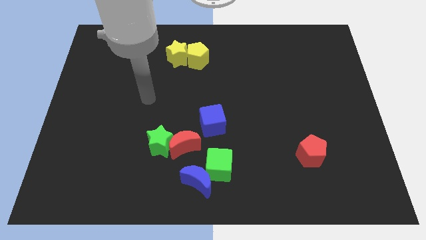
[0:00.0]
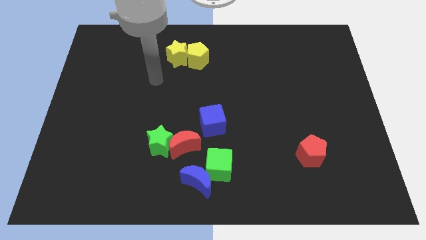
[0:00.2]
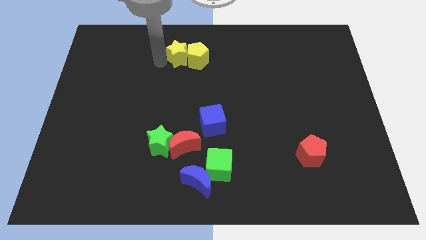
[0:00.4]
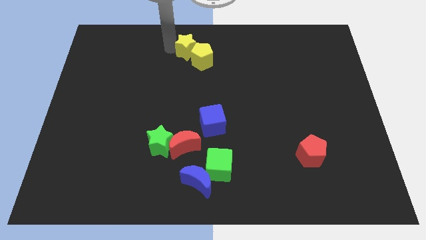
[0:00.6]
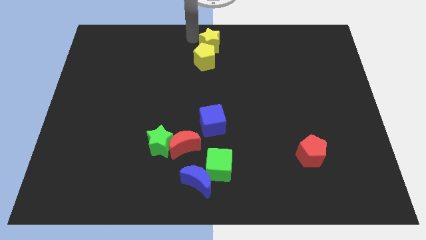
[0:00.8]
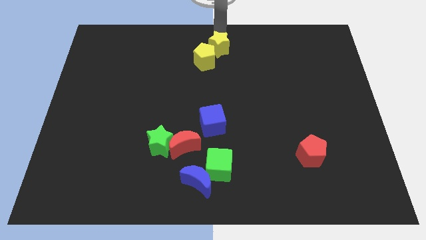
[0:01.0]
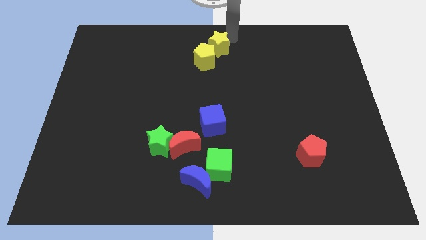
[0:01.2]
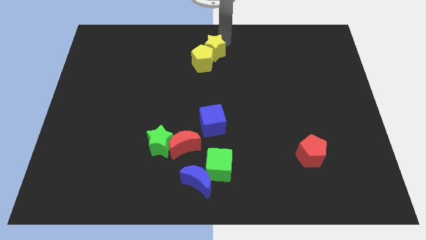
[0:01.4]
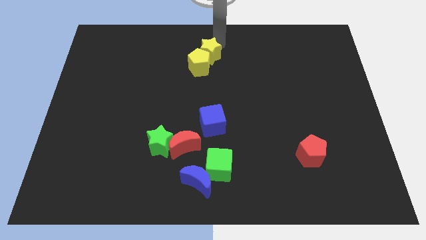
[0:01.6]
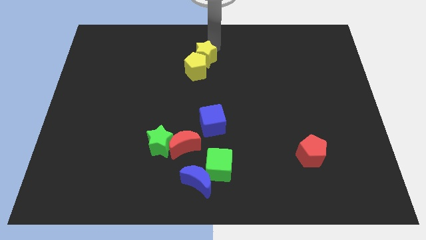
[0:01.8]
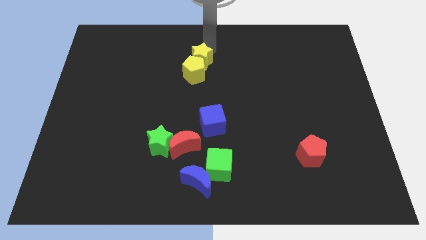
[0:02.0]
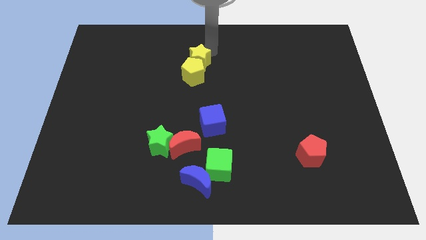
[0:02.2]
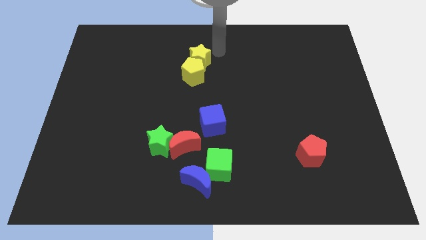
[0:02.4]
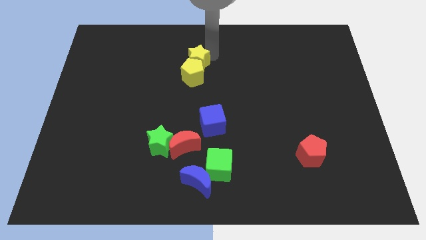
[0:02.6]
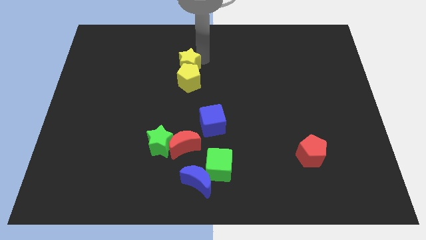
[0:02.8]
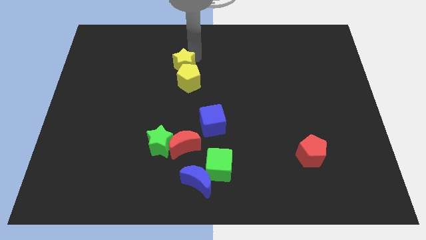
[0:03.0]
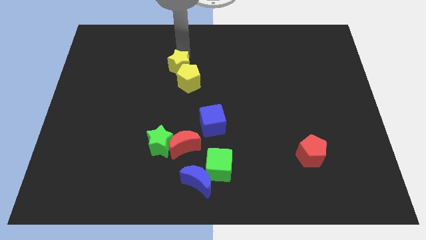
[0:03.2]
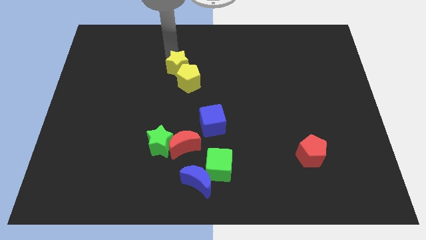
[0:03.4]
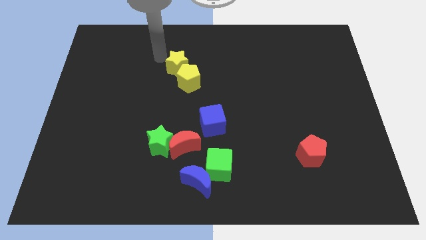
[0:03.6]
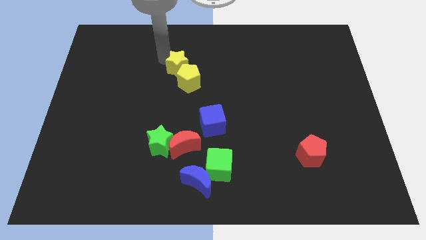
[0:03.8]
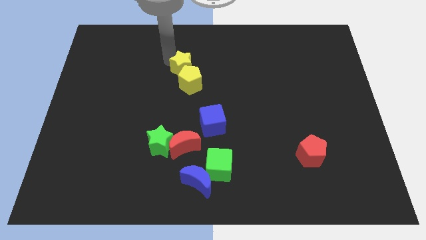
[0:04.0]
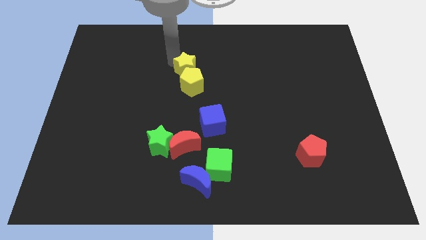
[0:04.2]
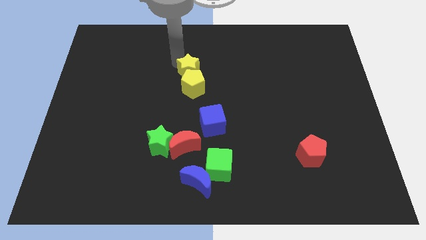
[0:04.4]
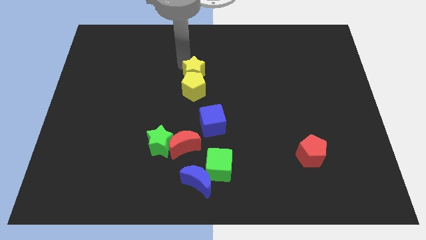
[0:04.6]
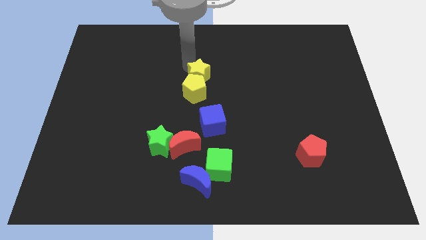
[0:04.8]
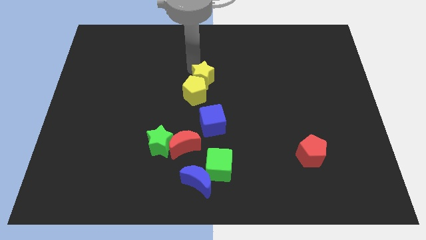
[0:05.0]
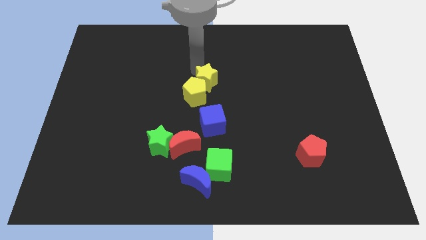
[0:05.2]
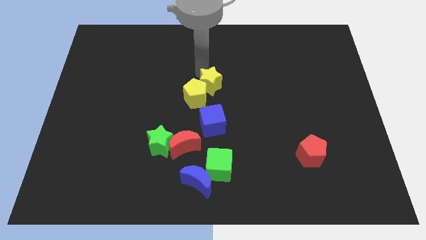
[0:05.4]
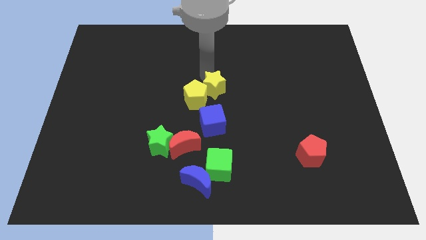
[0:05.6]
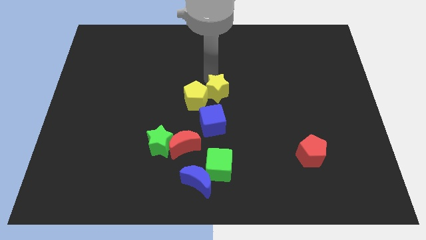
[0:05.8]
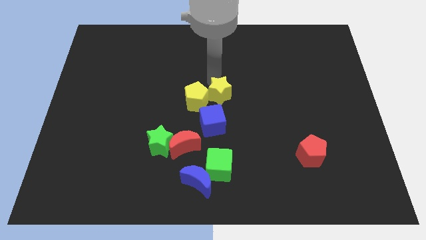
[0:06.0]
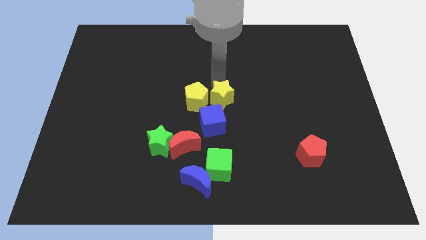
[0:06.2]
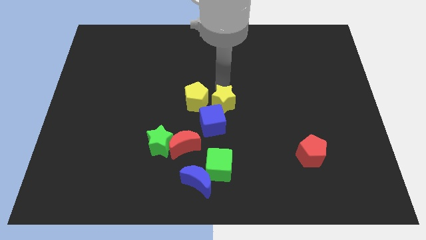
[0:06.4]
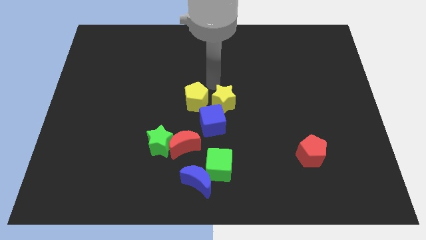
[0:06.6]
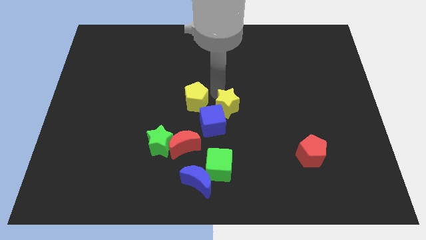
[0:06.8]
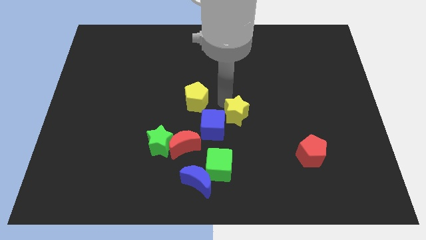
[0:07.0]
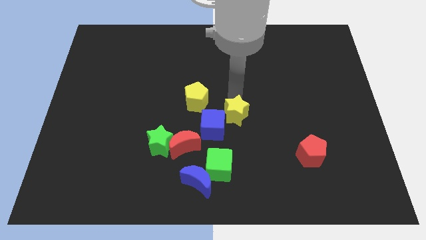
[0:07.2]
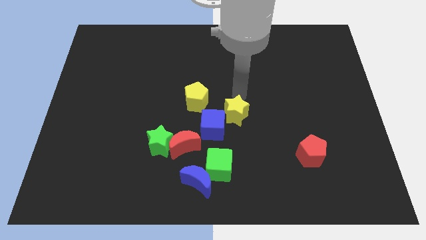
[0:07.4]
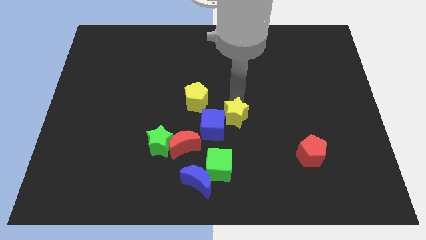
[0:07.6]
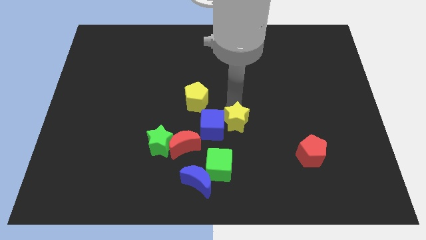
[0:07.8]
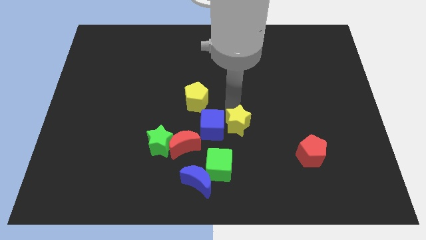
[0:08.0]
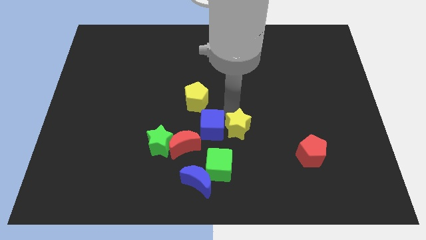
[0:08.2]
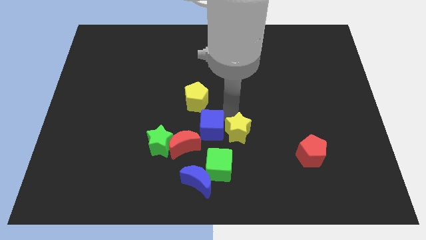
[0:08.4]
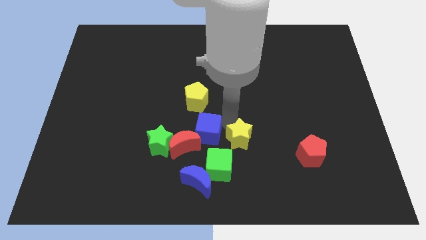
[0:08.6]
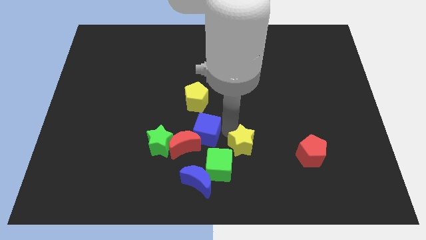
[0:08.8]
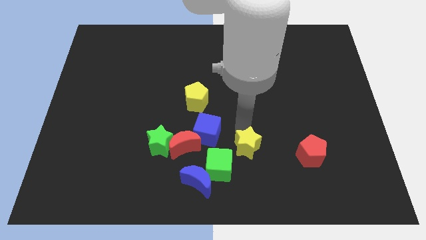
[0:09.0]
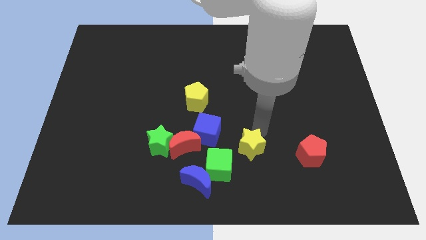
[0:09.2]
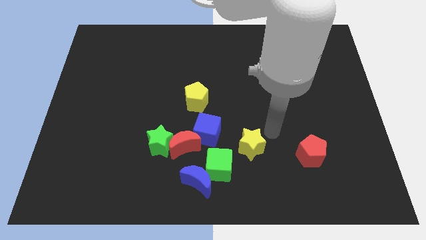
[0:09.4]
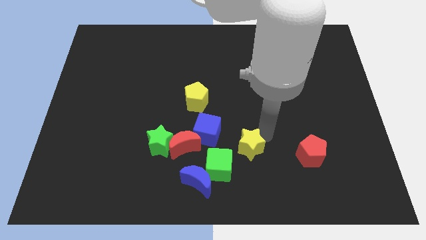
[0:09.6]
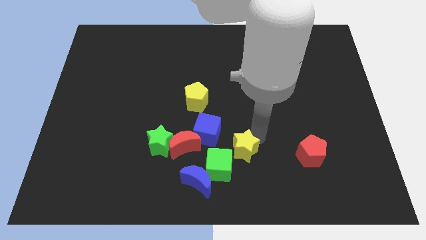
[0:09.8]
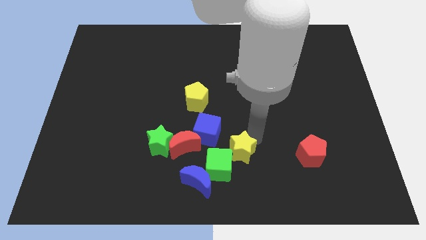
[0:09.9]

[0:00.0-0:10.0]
move the yellow star to the green cube

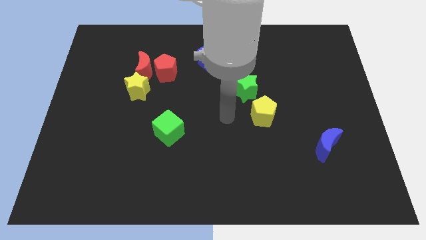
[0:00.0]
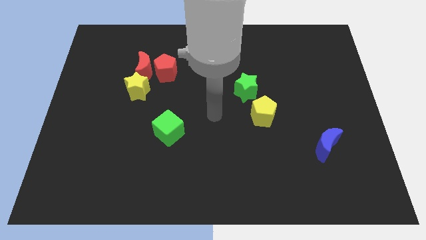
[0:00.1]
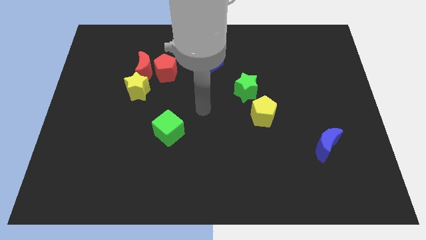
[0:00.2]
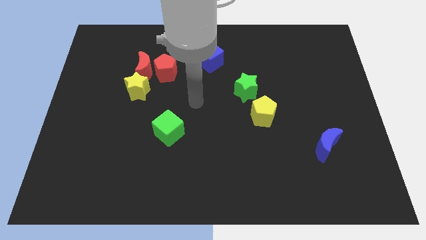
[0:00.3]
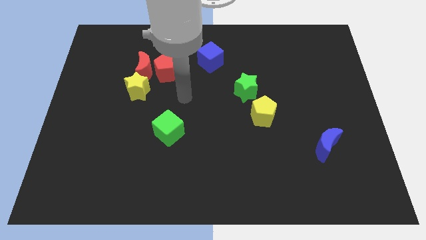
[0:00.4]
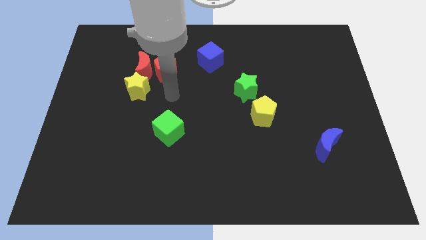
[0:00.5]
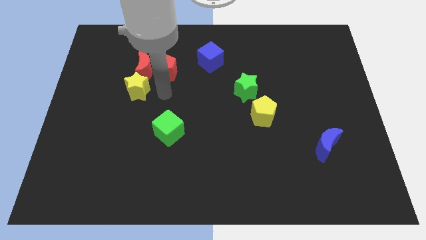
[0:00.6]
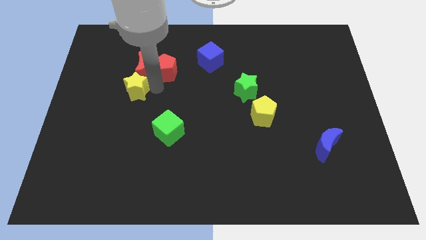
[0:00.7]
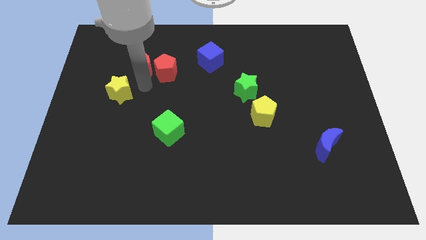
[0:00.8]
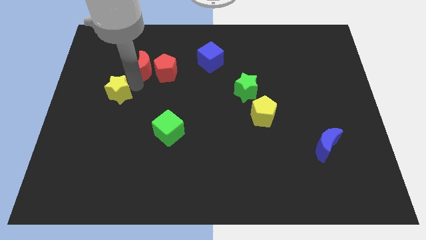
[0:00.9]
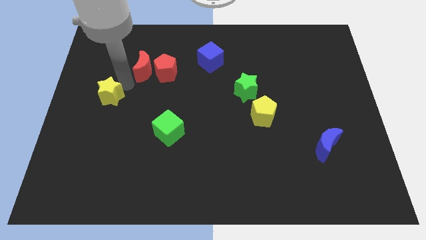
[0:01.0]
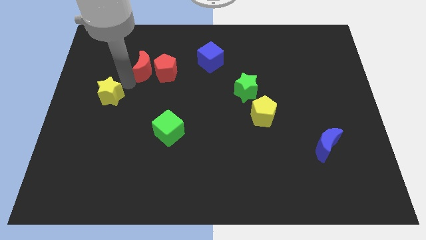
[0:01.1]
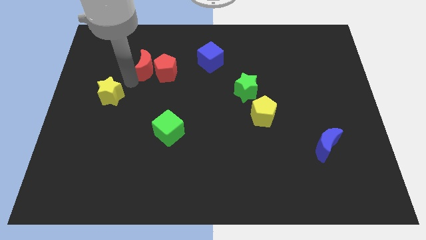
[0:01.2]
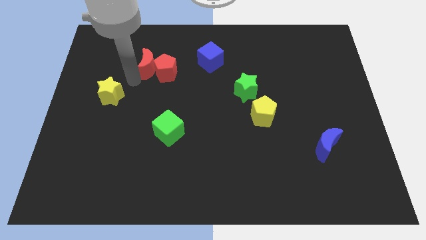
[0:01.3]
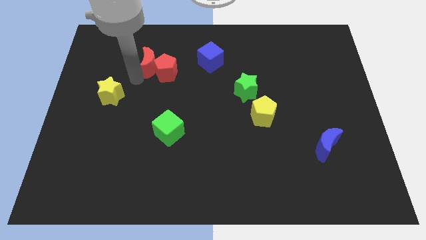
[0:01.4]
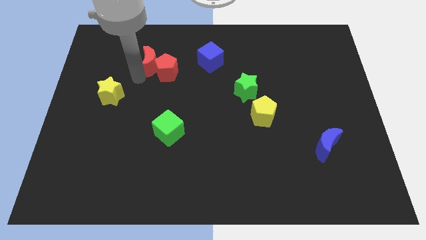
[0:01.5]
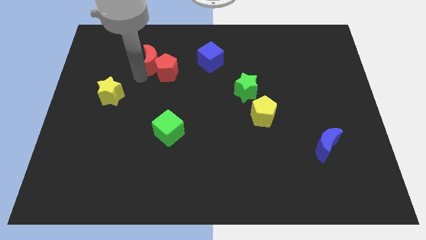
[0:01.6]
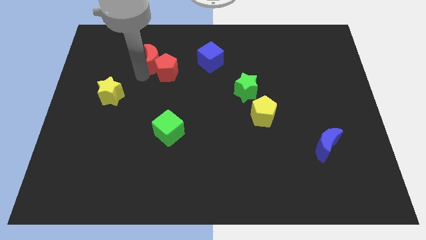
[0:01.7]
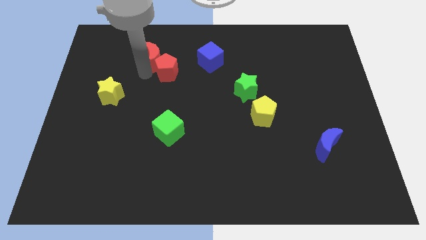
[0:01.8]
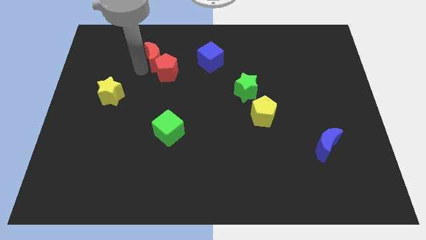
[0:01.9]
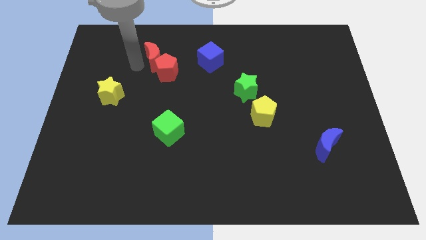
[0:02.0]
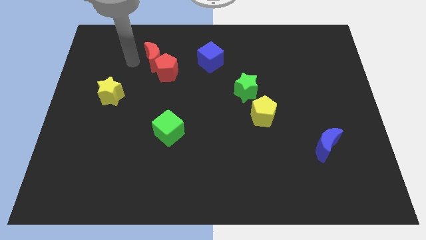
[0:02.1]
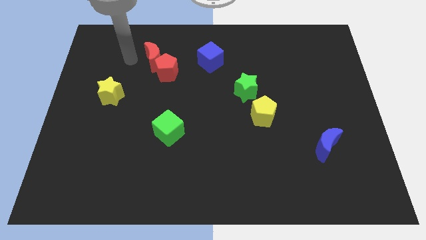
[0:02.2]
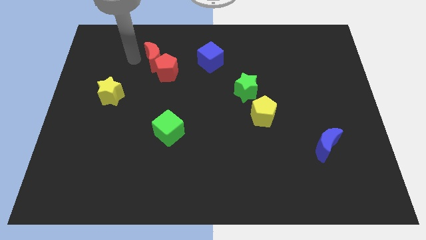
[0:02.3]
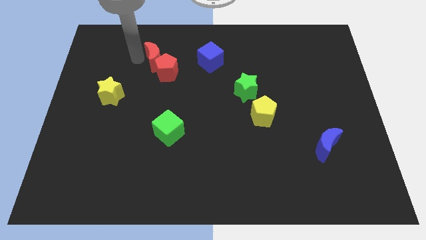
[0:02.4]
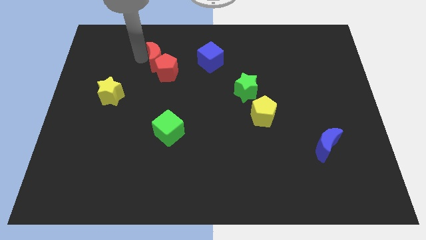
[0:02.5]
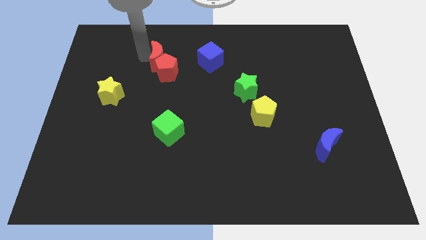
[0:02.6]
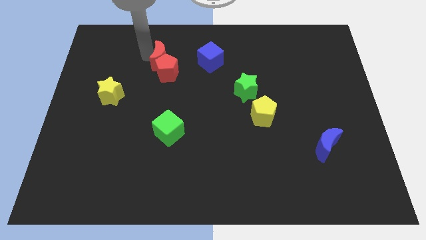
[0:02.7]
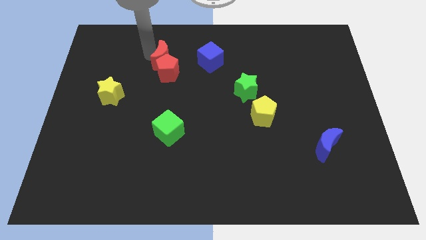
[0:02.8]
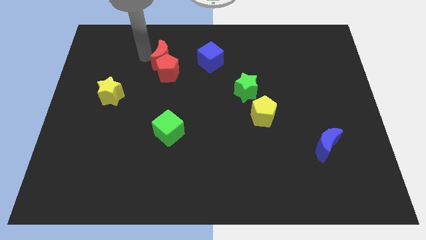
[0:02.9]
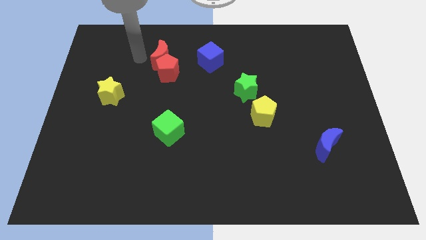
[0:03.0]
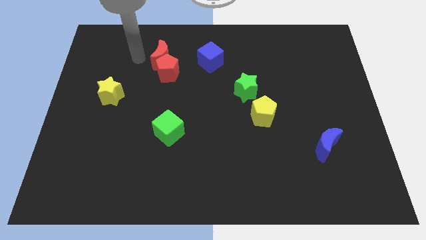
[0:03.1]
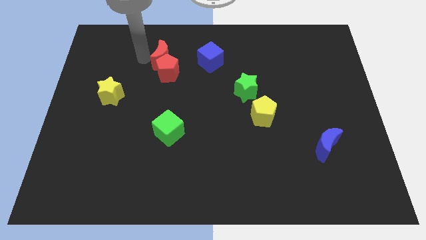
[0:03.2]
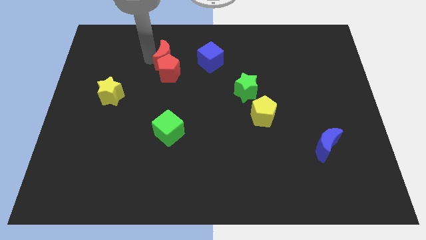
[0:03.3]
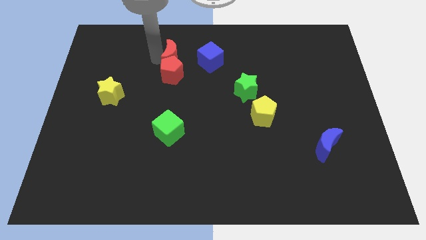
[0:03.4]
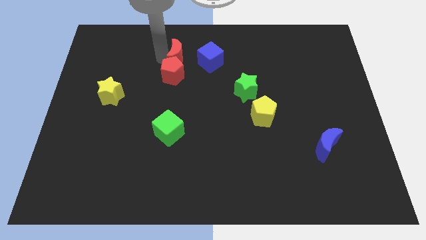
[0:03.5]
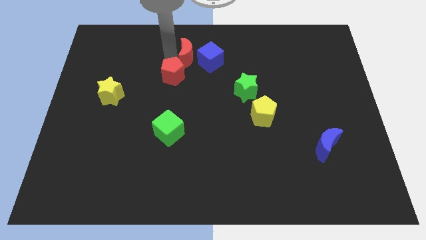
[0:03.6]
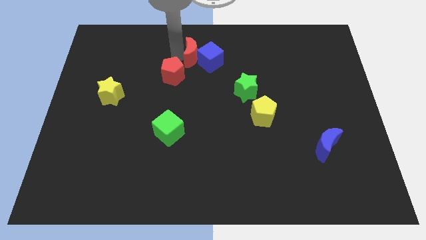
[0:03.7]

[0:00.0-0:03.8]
slide the red moon close to the blue cube
